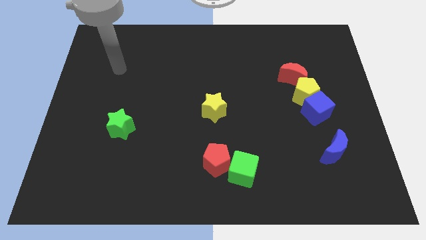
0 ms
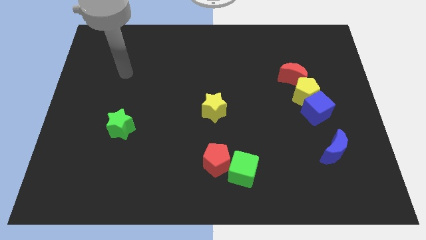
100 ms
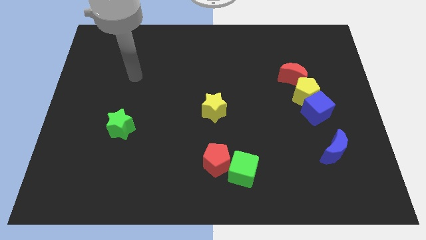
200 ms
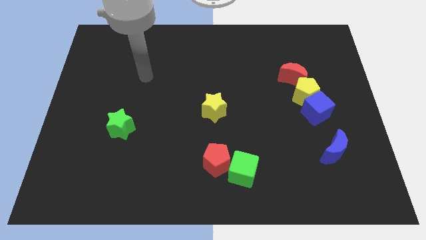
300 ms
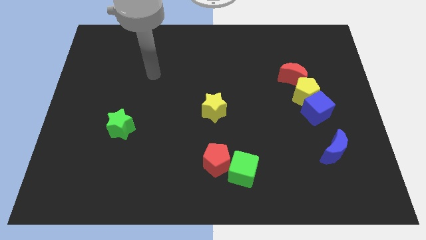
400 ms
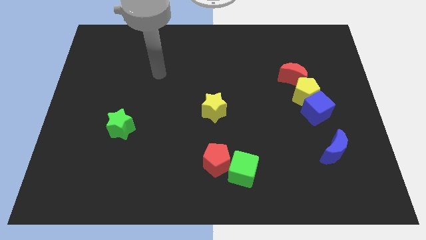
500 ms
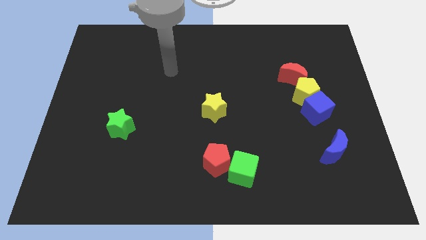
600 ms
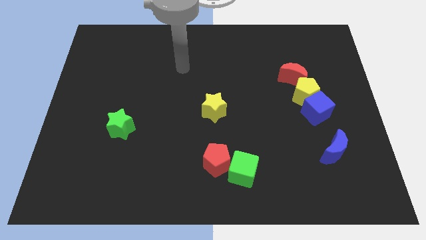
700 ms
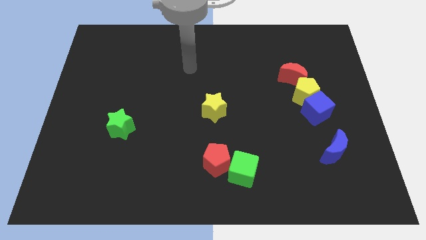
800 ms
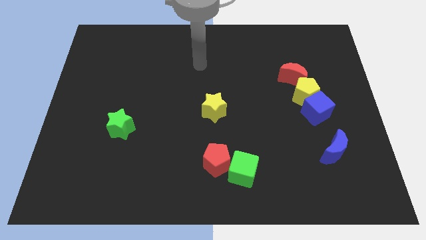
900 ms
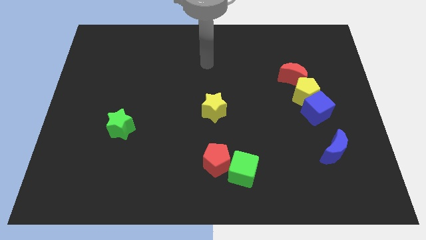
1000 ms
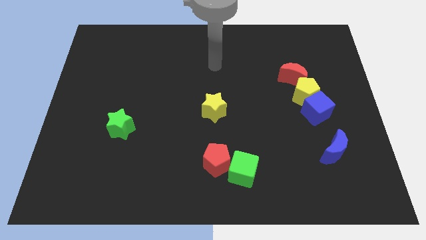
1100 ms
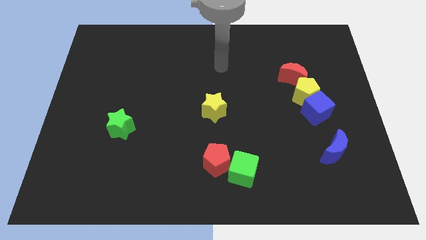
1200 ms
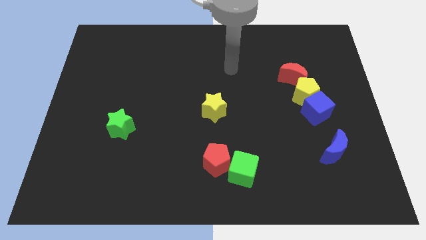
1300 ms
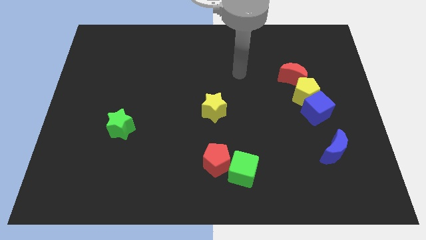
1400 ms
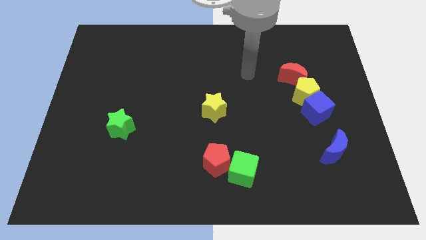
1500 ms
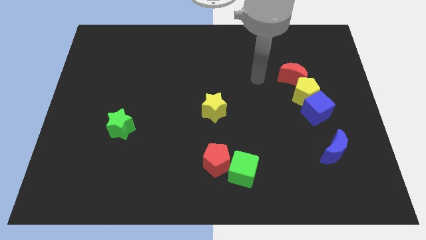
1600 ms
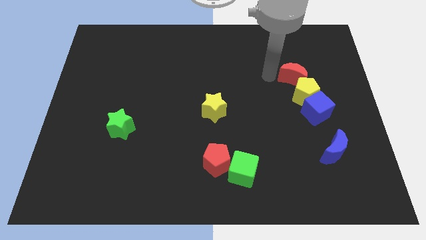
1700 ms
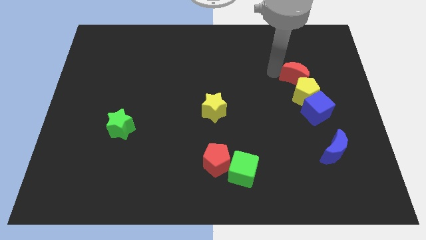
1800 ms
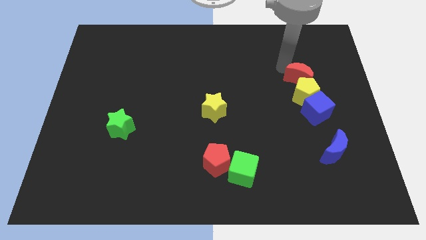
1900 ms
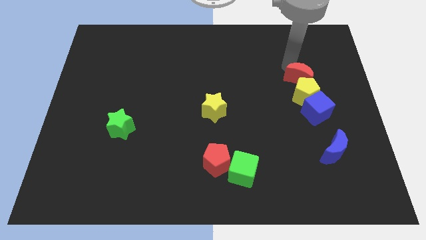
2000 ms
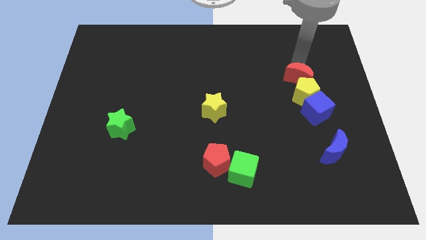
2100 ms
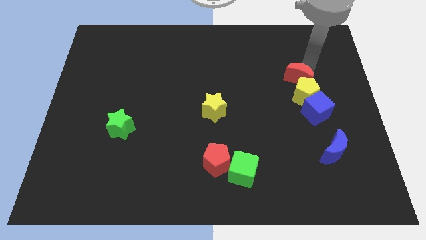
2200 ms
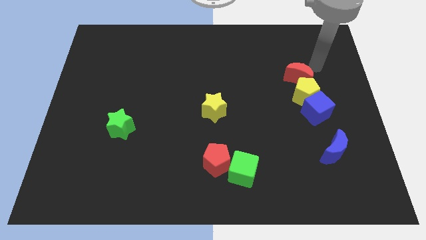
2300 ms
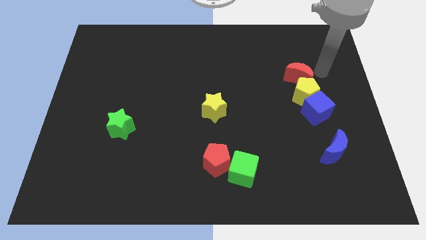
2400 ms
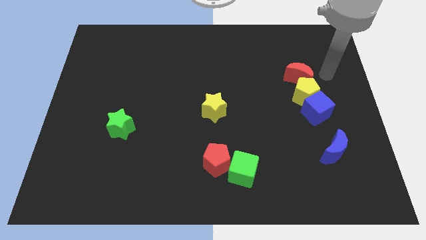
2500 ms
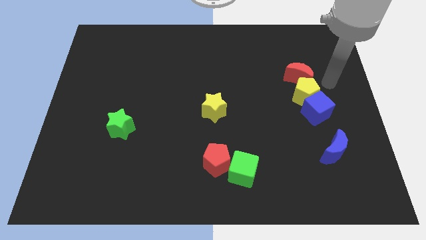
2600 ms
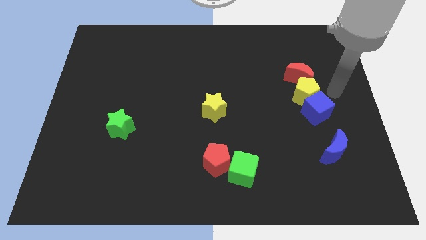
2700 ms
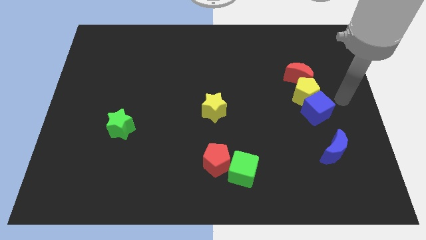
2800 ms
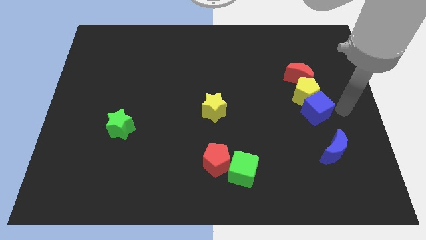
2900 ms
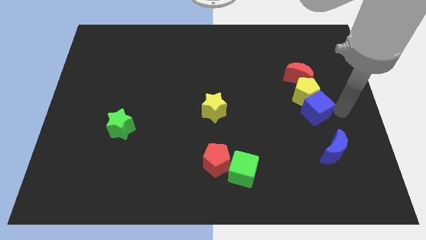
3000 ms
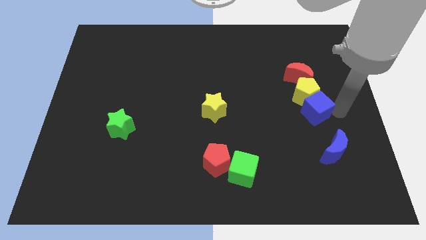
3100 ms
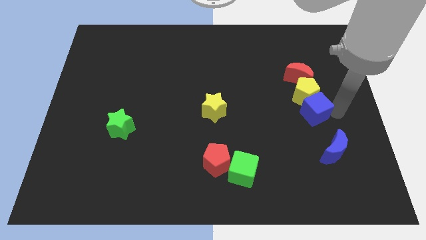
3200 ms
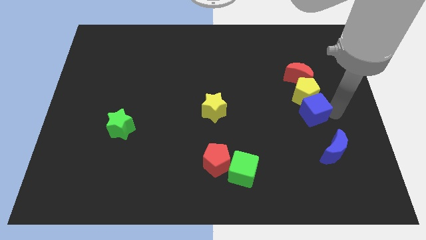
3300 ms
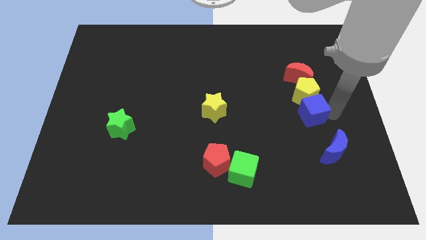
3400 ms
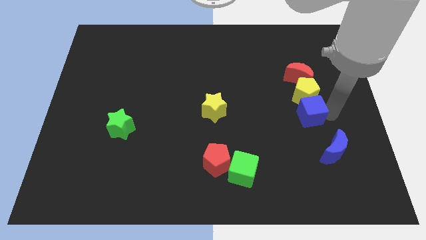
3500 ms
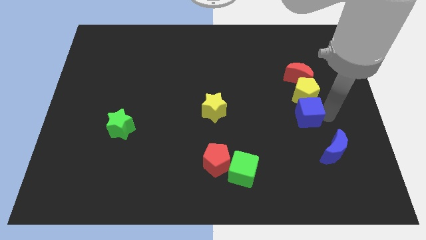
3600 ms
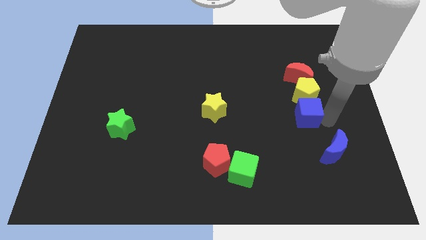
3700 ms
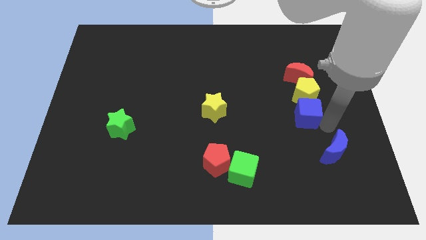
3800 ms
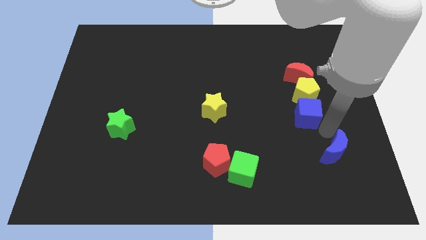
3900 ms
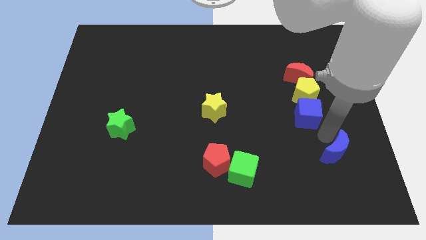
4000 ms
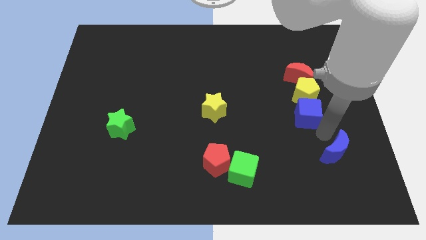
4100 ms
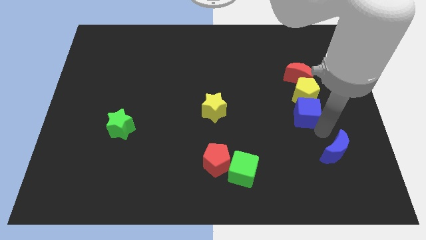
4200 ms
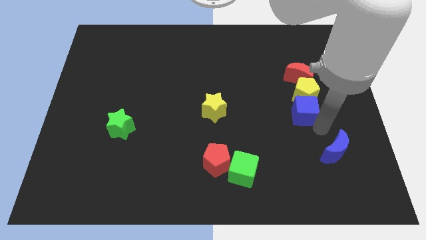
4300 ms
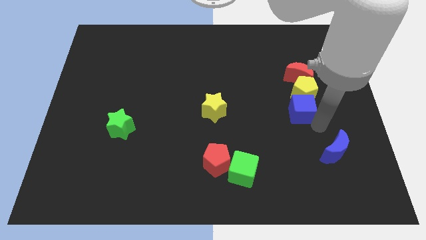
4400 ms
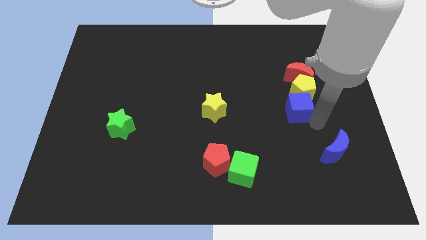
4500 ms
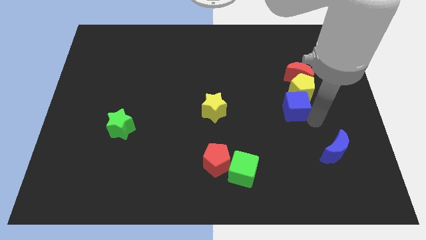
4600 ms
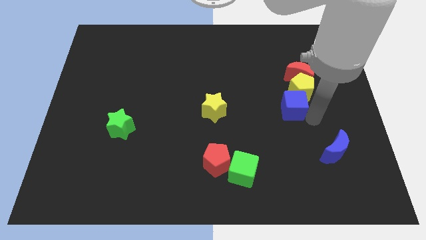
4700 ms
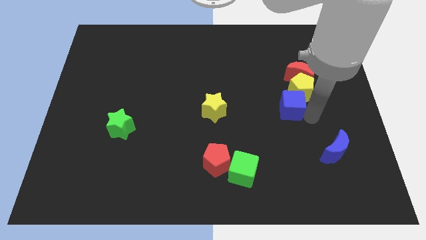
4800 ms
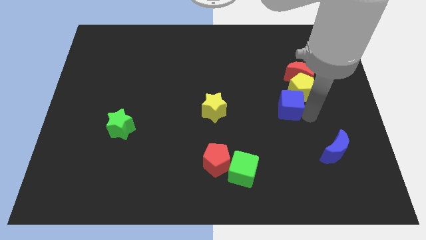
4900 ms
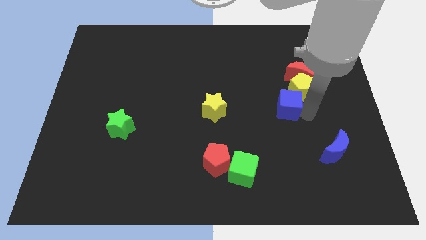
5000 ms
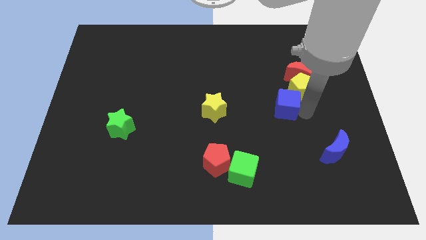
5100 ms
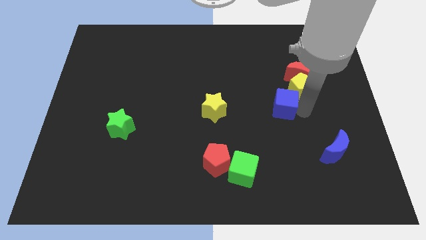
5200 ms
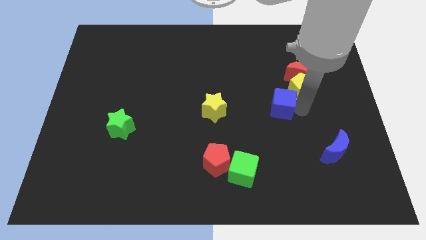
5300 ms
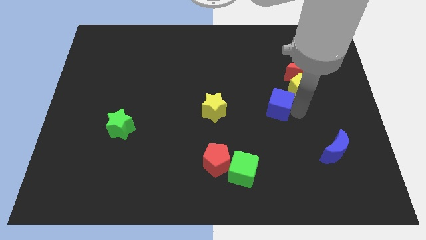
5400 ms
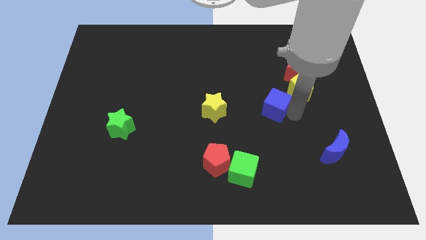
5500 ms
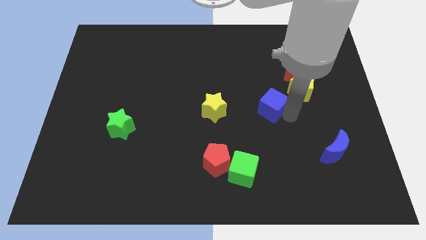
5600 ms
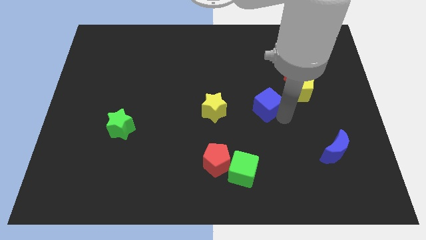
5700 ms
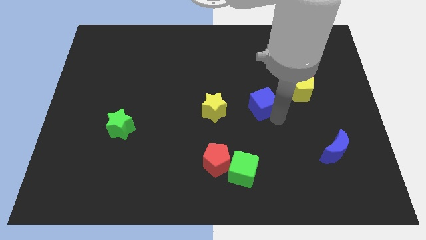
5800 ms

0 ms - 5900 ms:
move the blue cube up and left a little bit

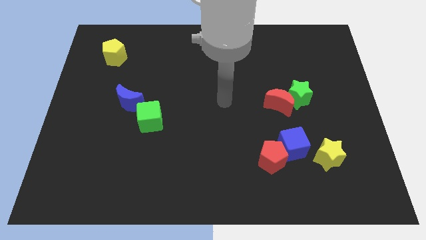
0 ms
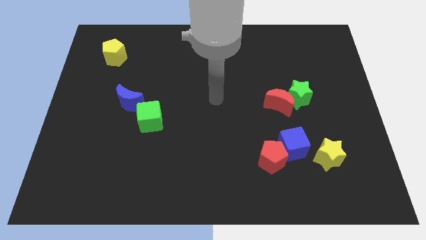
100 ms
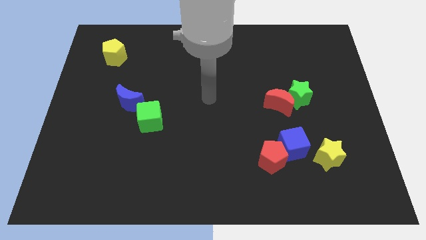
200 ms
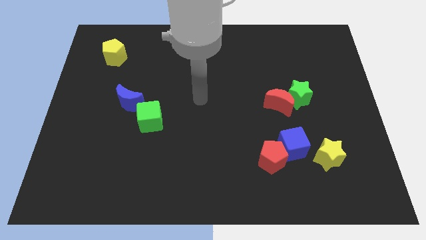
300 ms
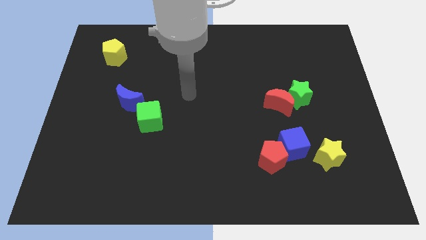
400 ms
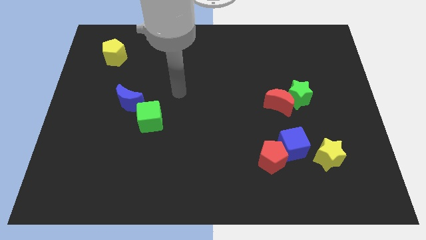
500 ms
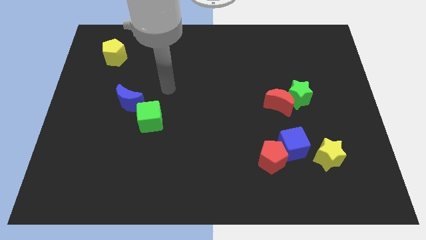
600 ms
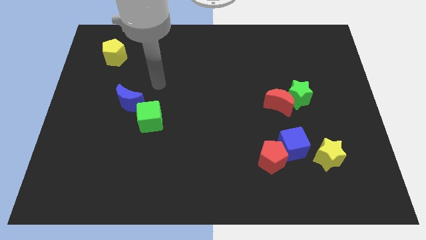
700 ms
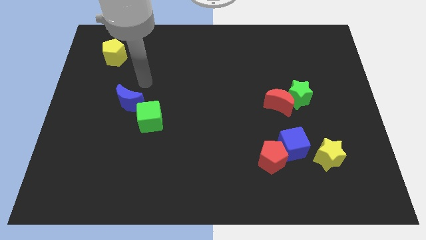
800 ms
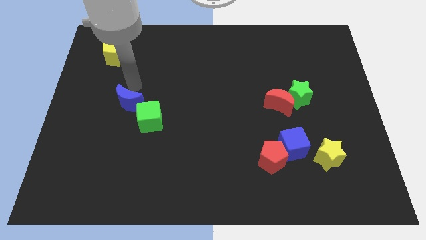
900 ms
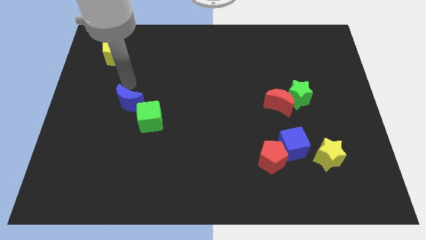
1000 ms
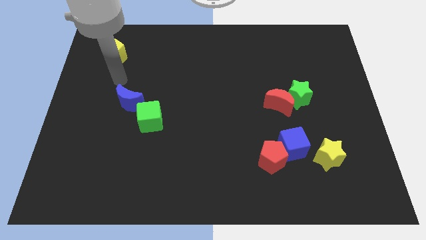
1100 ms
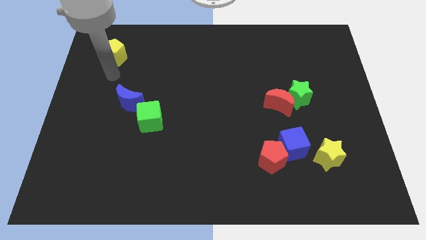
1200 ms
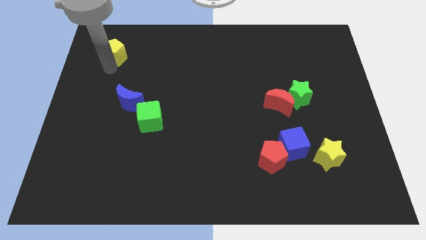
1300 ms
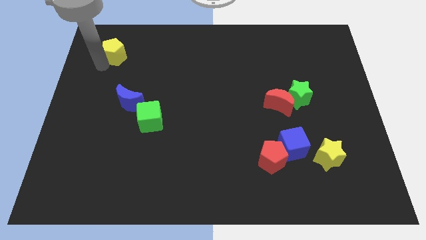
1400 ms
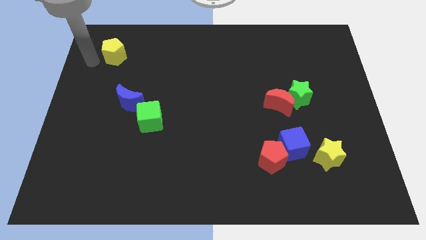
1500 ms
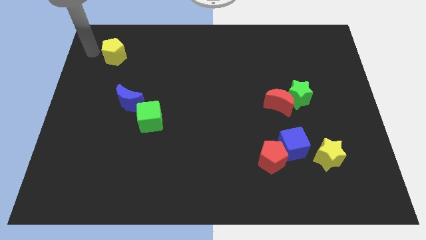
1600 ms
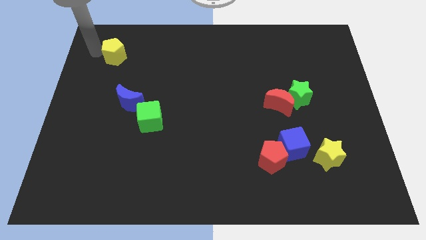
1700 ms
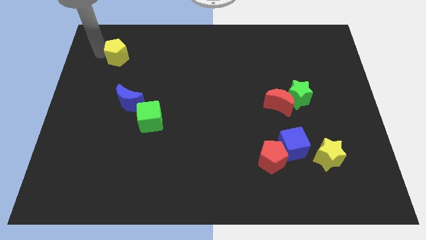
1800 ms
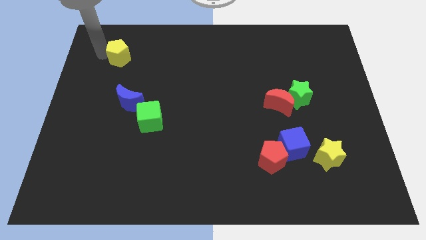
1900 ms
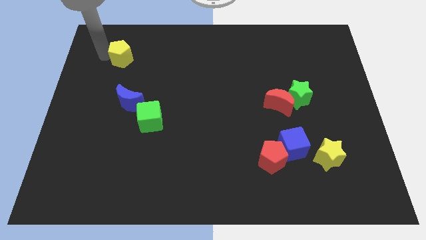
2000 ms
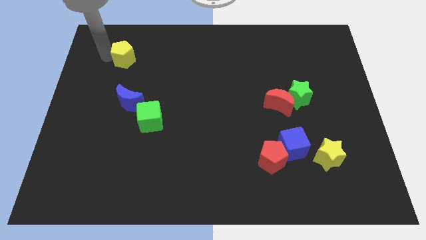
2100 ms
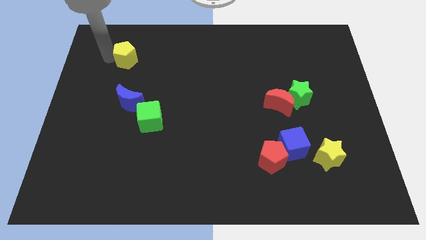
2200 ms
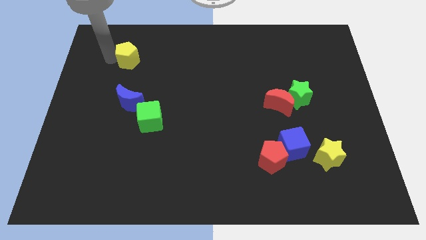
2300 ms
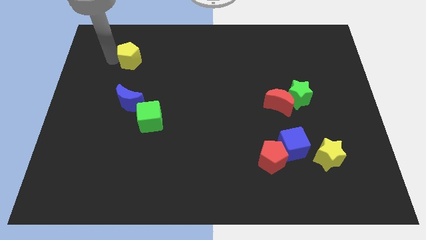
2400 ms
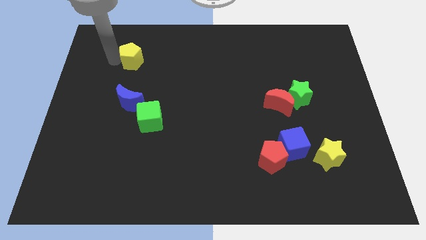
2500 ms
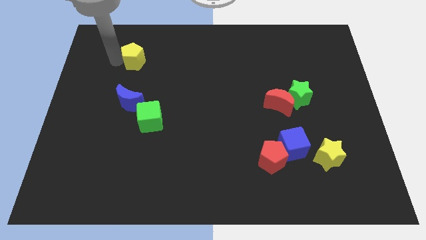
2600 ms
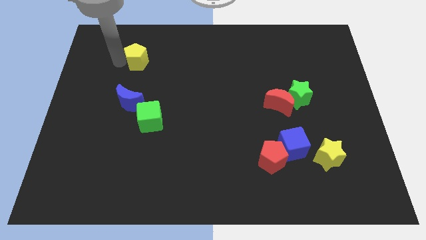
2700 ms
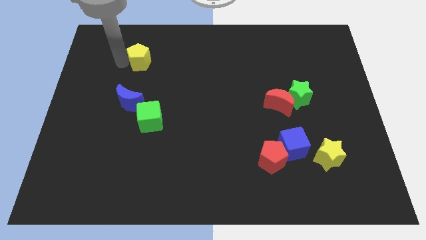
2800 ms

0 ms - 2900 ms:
push the yellow pentagon right a little bit
